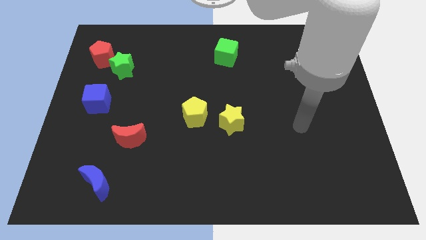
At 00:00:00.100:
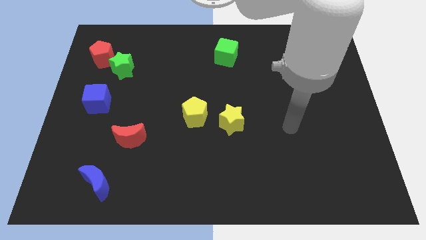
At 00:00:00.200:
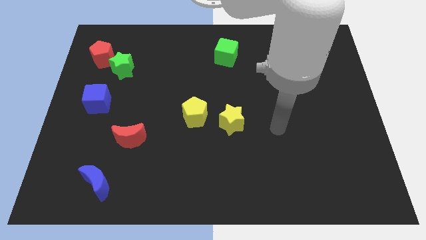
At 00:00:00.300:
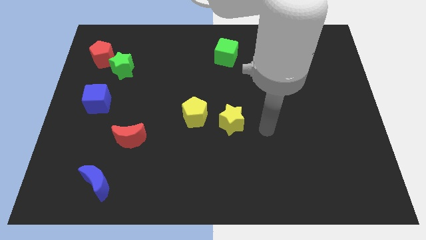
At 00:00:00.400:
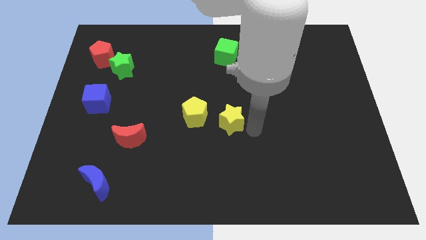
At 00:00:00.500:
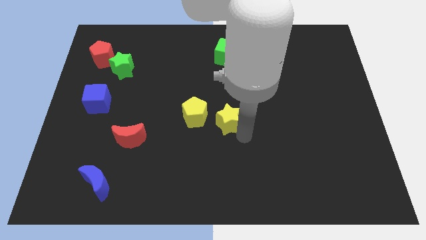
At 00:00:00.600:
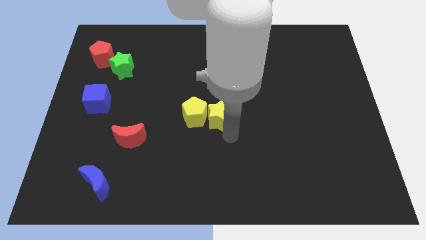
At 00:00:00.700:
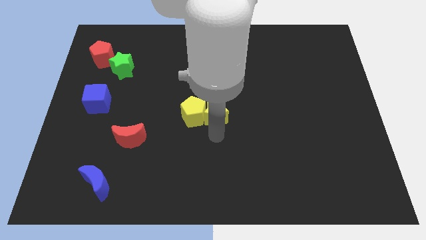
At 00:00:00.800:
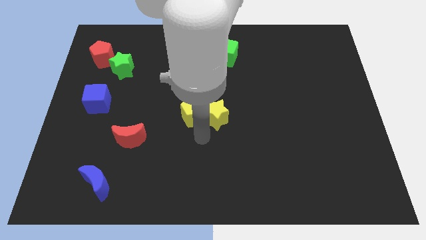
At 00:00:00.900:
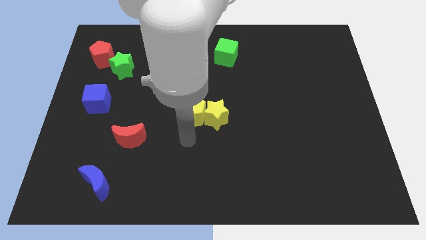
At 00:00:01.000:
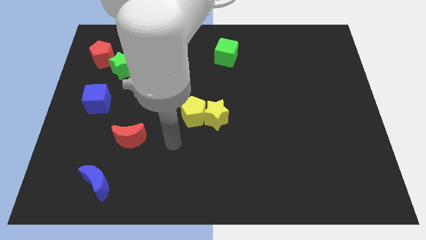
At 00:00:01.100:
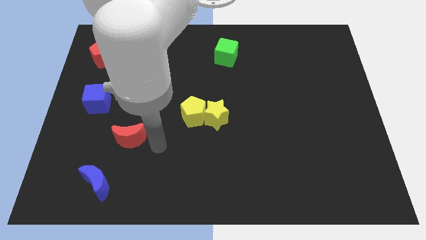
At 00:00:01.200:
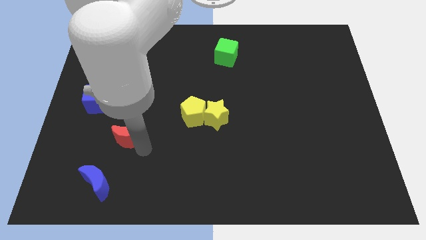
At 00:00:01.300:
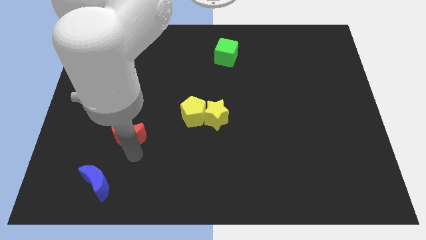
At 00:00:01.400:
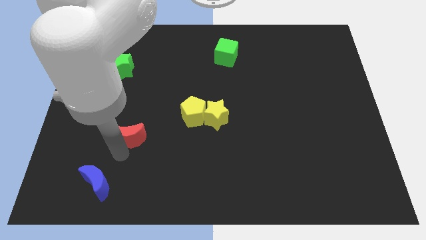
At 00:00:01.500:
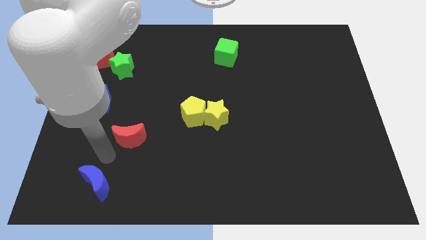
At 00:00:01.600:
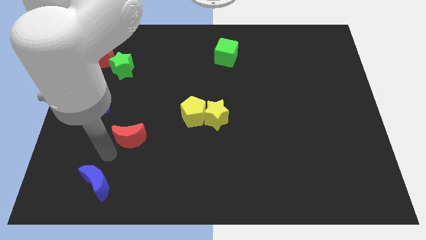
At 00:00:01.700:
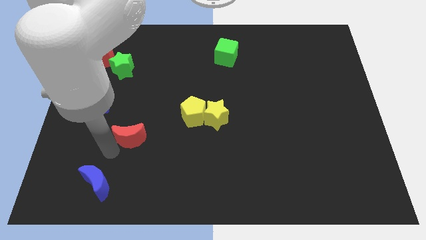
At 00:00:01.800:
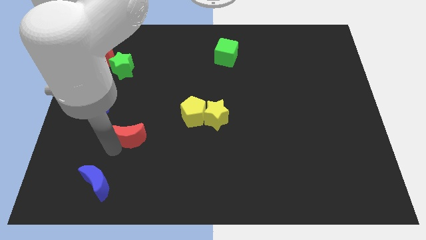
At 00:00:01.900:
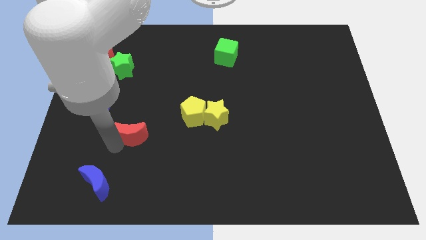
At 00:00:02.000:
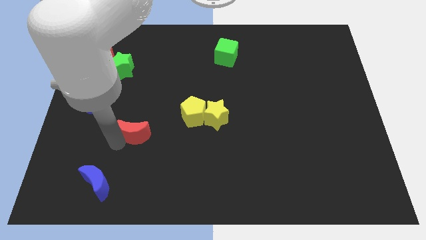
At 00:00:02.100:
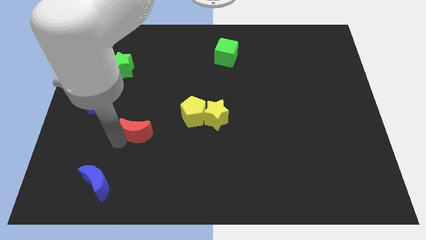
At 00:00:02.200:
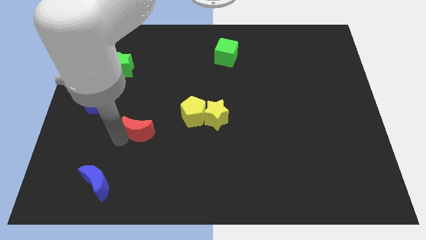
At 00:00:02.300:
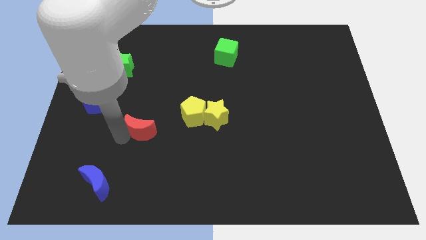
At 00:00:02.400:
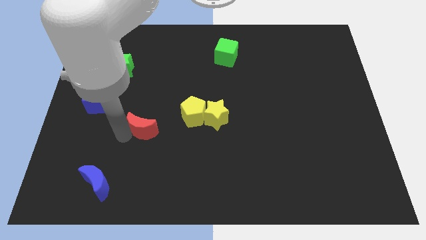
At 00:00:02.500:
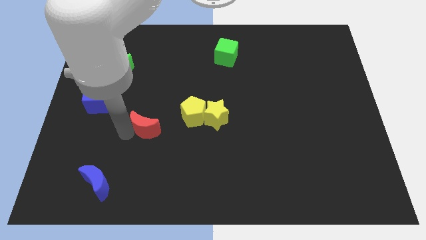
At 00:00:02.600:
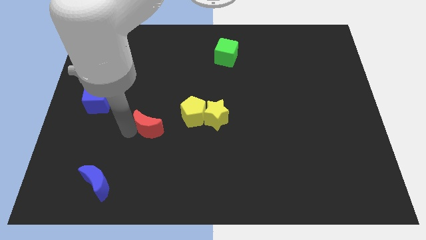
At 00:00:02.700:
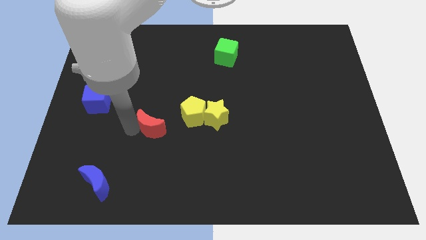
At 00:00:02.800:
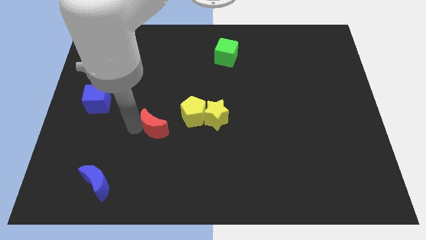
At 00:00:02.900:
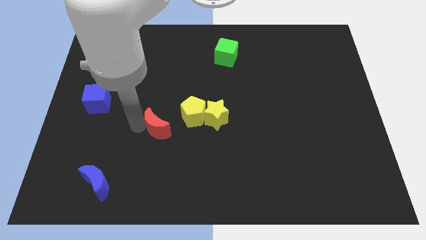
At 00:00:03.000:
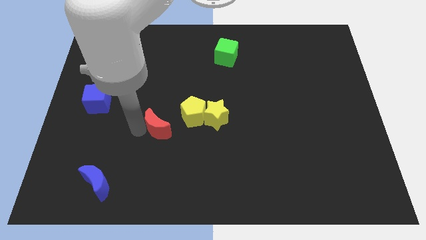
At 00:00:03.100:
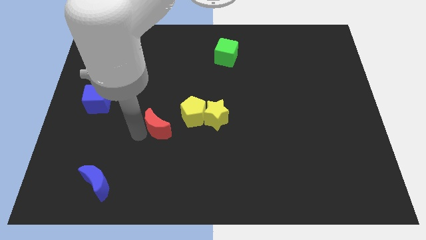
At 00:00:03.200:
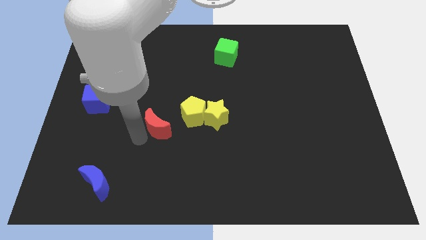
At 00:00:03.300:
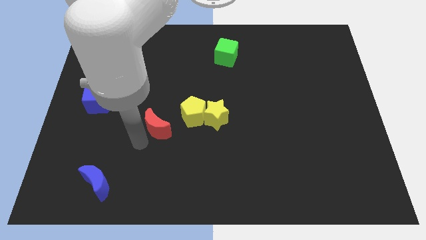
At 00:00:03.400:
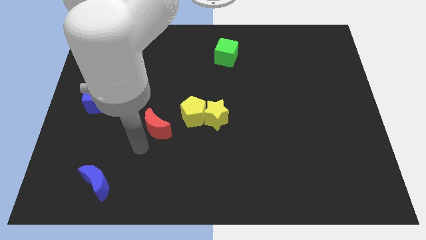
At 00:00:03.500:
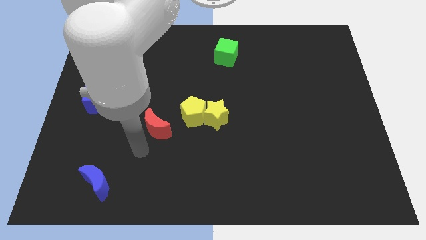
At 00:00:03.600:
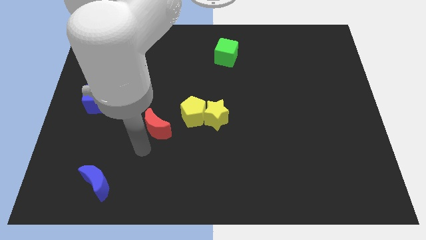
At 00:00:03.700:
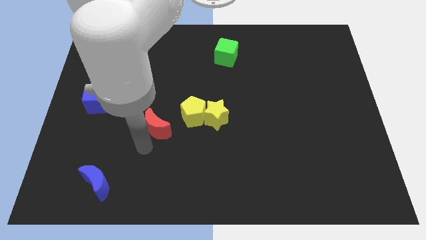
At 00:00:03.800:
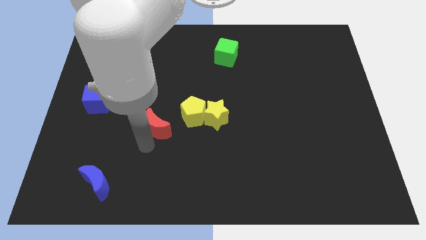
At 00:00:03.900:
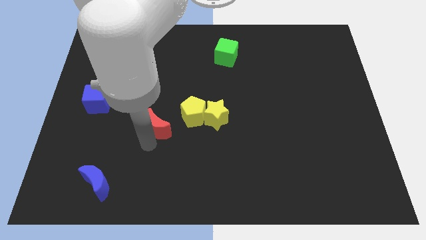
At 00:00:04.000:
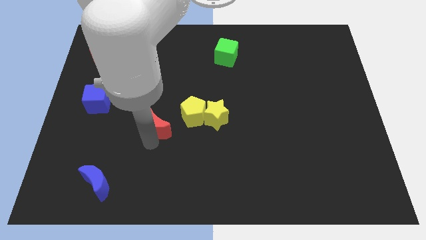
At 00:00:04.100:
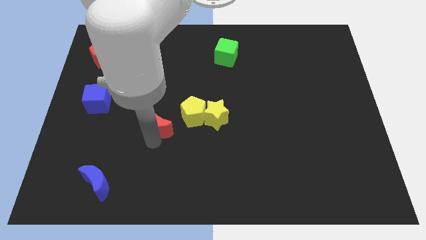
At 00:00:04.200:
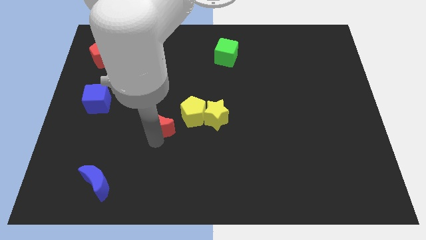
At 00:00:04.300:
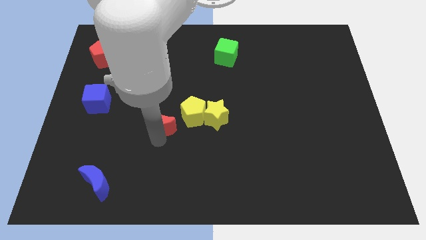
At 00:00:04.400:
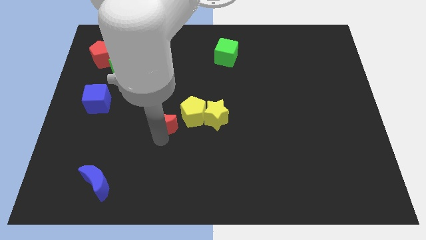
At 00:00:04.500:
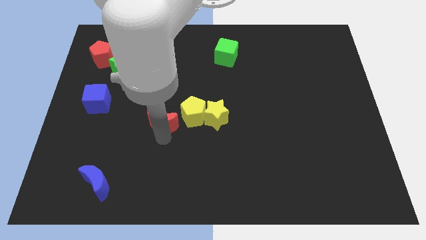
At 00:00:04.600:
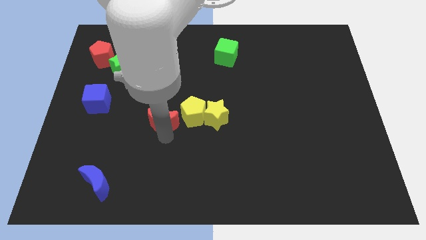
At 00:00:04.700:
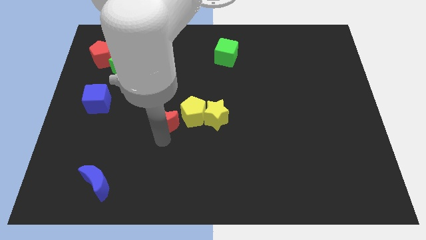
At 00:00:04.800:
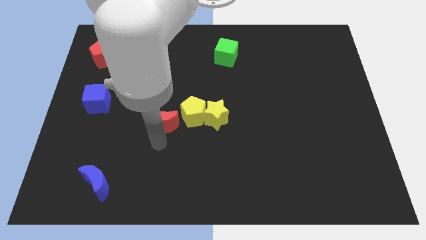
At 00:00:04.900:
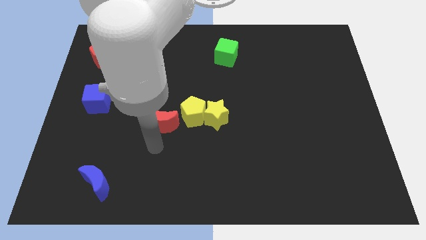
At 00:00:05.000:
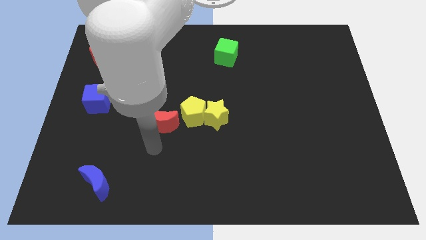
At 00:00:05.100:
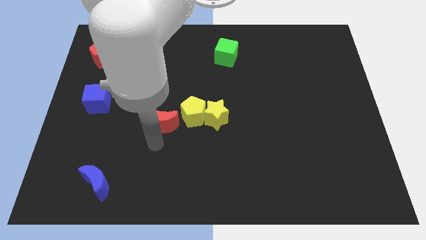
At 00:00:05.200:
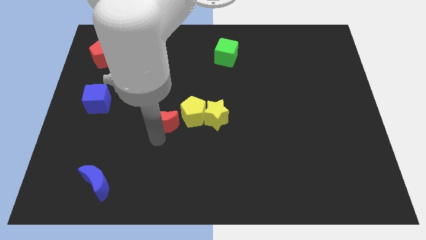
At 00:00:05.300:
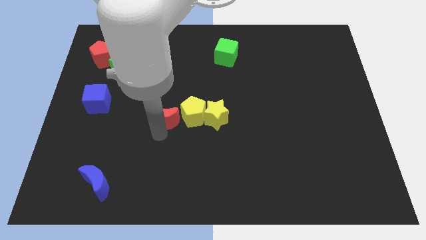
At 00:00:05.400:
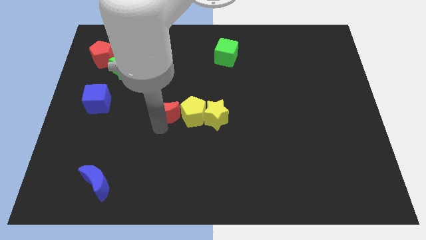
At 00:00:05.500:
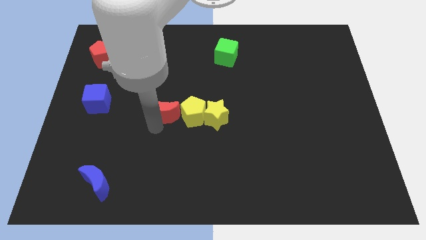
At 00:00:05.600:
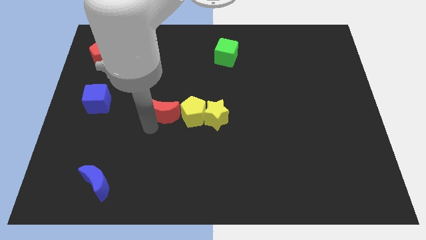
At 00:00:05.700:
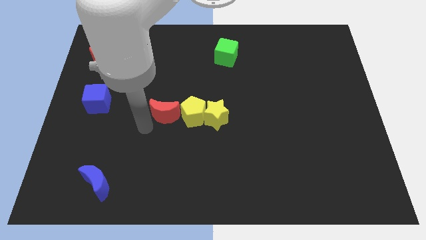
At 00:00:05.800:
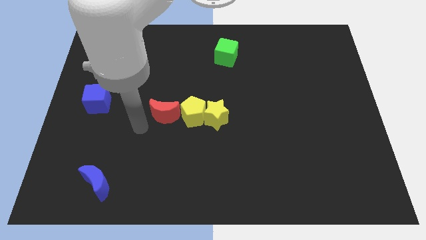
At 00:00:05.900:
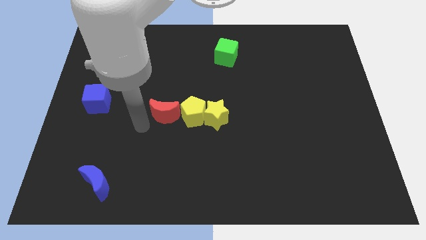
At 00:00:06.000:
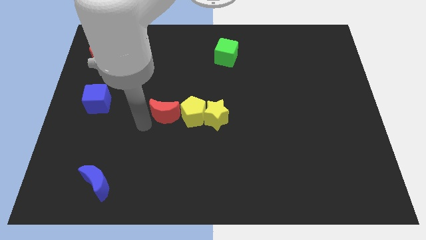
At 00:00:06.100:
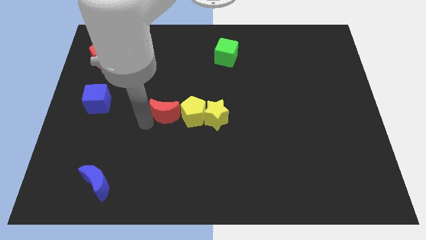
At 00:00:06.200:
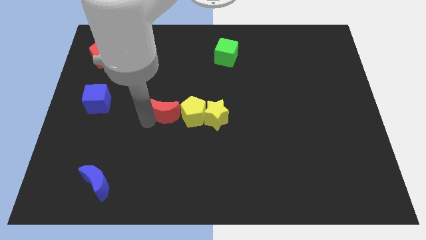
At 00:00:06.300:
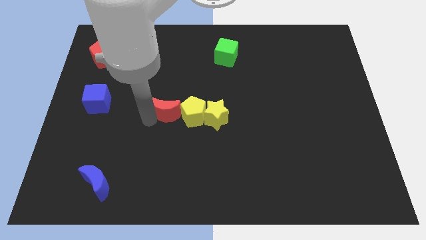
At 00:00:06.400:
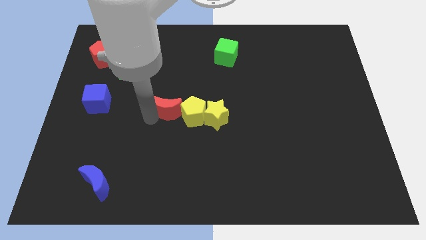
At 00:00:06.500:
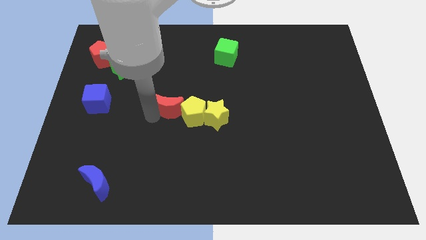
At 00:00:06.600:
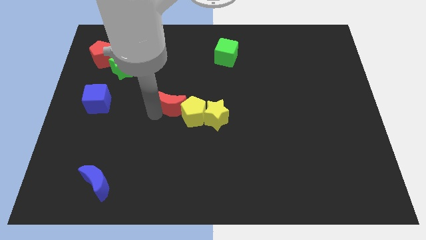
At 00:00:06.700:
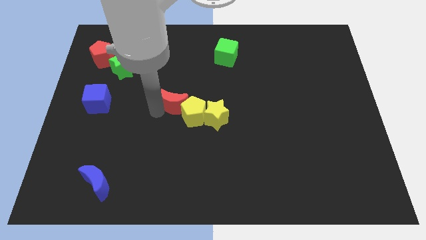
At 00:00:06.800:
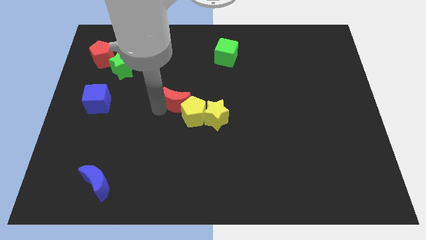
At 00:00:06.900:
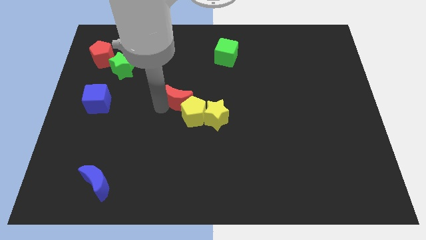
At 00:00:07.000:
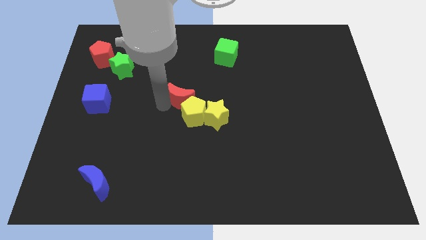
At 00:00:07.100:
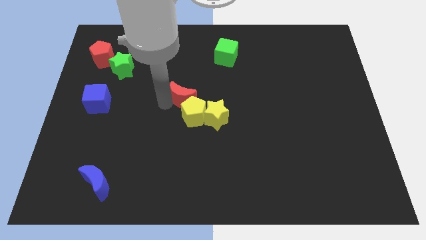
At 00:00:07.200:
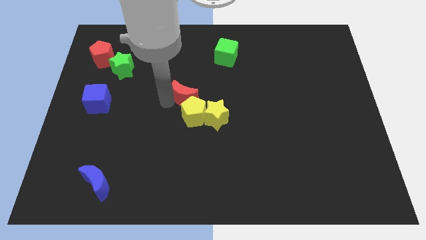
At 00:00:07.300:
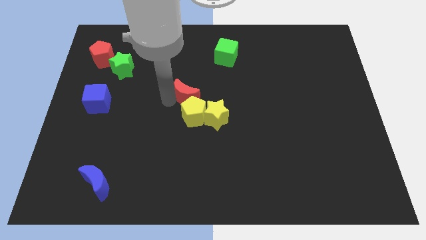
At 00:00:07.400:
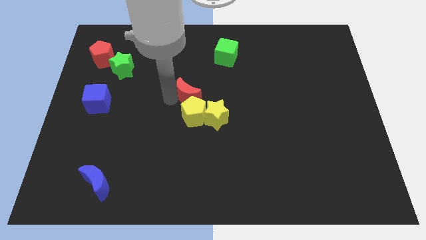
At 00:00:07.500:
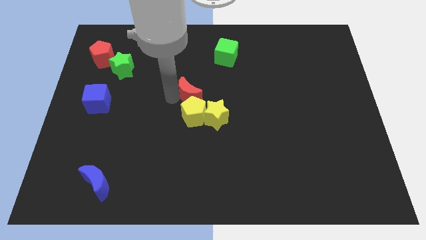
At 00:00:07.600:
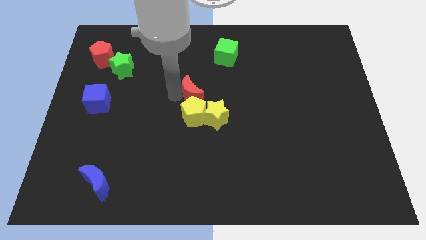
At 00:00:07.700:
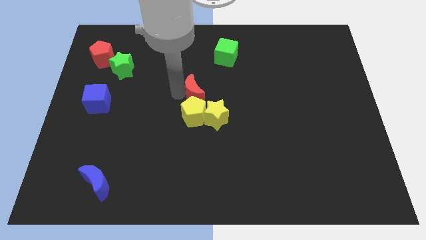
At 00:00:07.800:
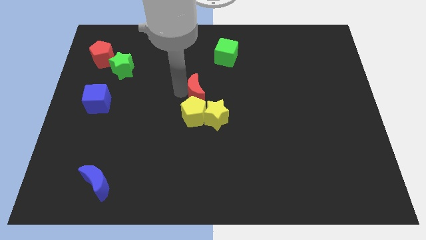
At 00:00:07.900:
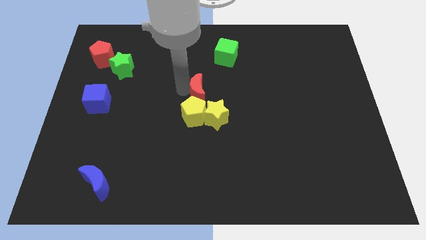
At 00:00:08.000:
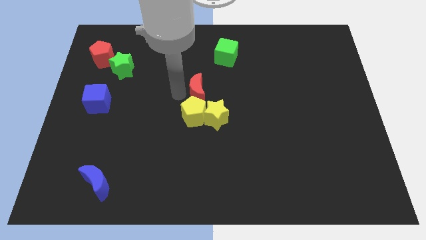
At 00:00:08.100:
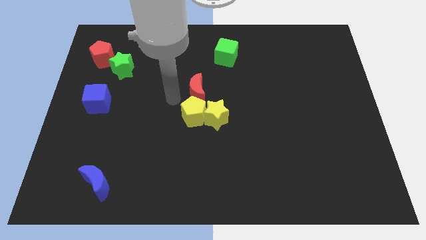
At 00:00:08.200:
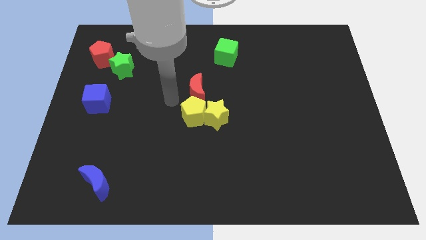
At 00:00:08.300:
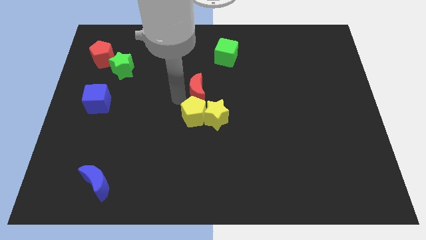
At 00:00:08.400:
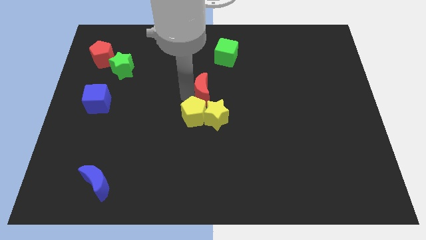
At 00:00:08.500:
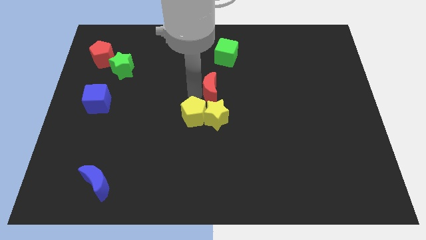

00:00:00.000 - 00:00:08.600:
push the red moon below the green cube
